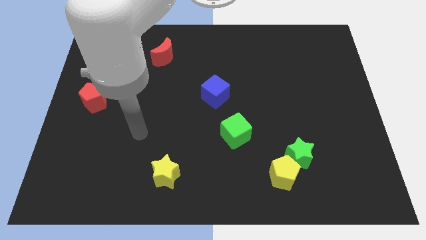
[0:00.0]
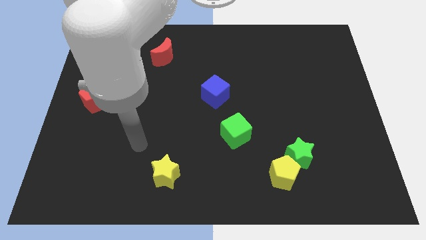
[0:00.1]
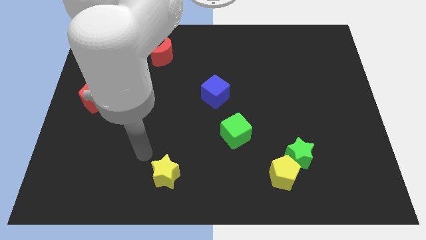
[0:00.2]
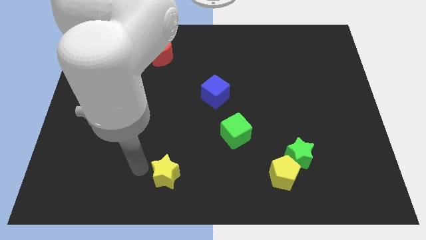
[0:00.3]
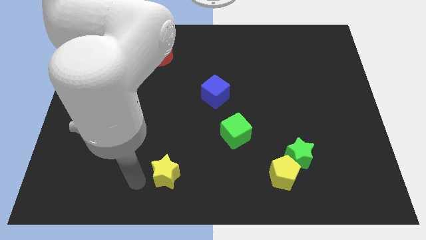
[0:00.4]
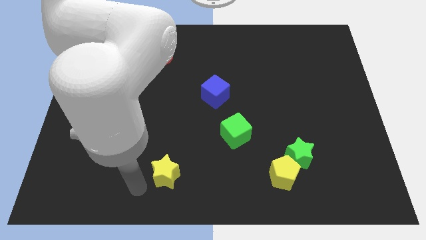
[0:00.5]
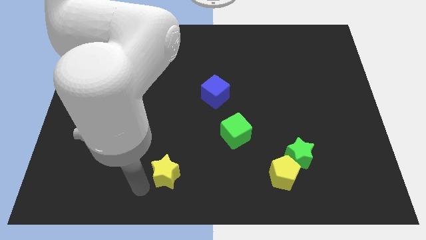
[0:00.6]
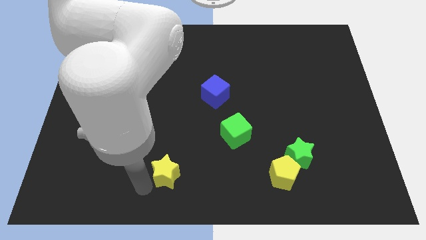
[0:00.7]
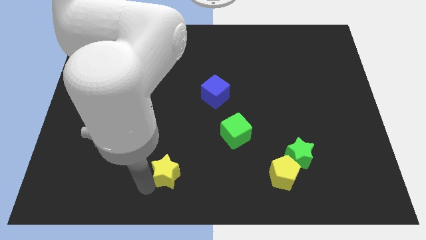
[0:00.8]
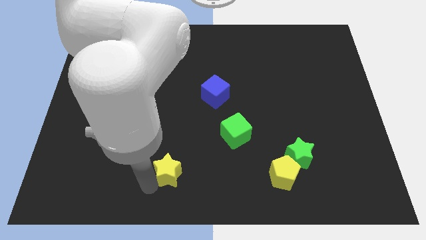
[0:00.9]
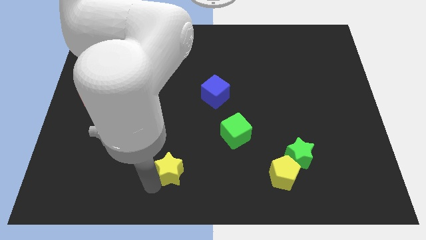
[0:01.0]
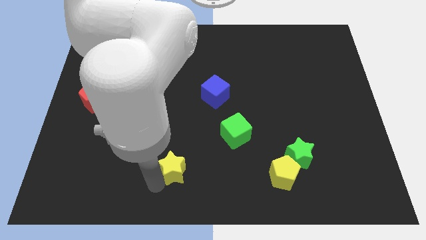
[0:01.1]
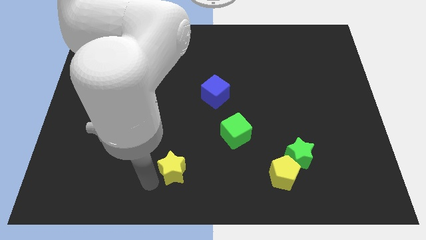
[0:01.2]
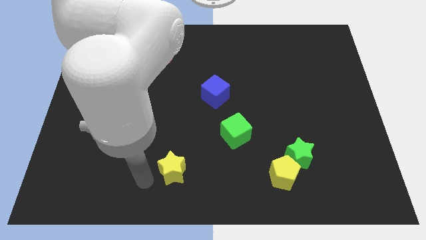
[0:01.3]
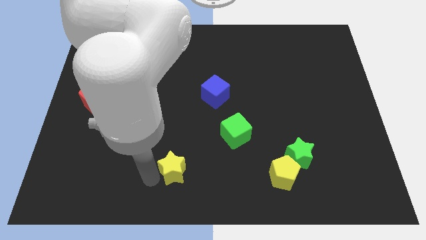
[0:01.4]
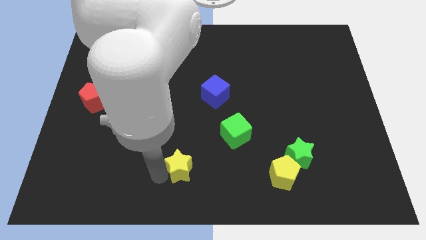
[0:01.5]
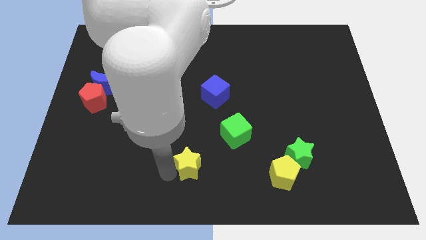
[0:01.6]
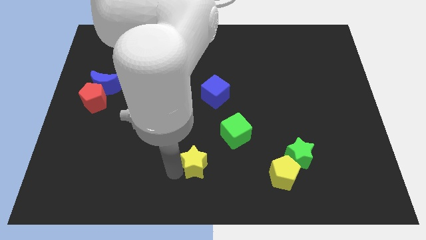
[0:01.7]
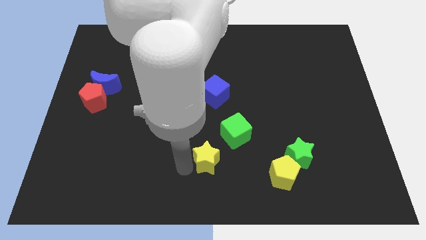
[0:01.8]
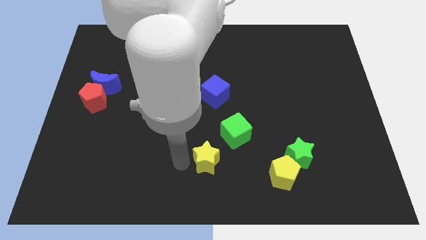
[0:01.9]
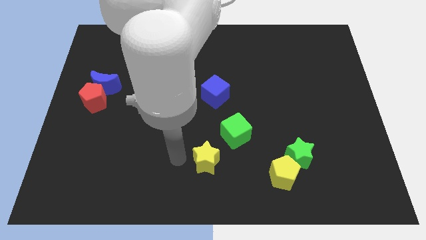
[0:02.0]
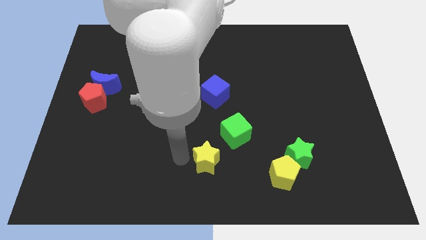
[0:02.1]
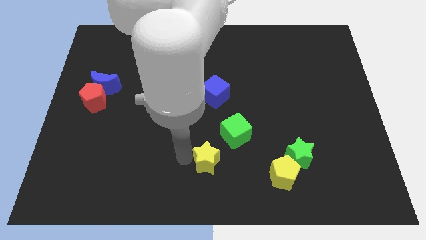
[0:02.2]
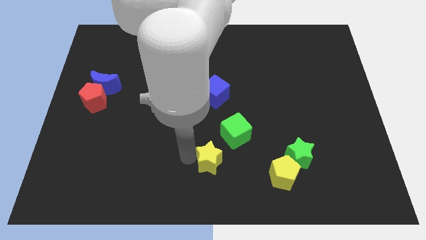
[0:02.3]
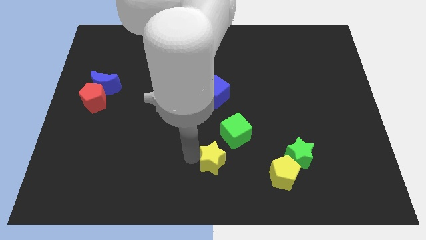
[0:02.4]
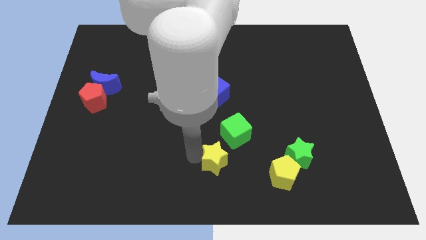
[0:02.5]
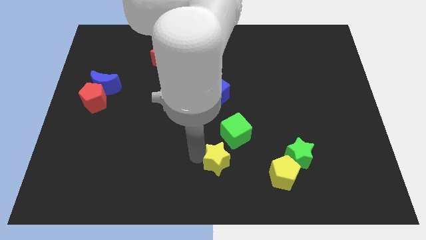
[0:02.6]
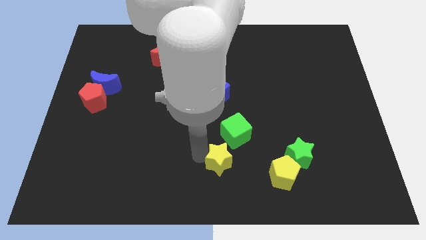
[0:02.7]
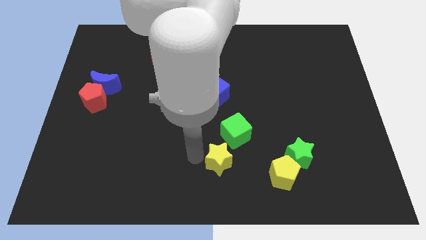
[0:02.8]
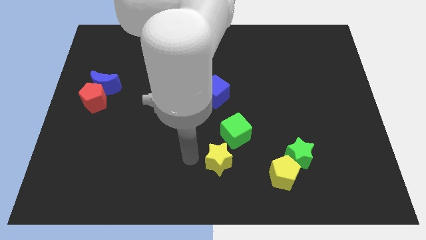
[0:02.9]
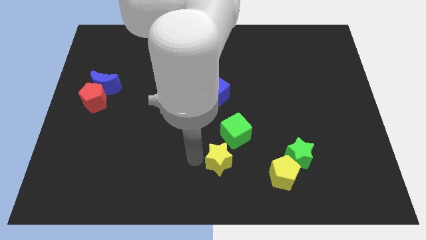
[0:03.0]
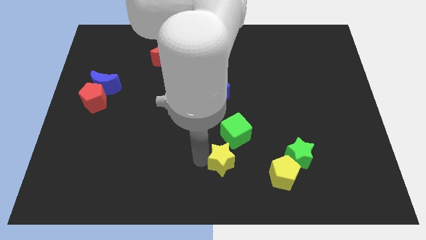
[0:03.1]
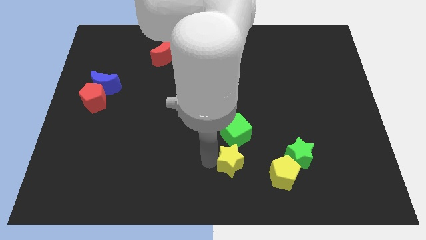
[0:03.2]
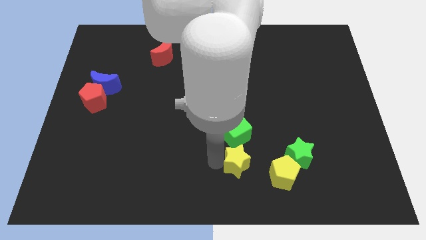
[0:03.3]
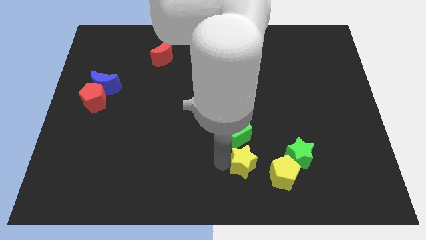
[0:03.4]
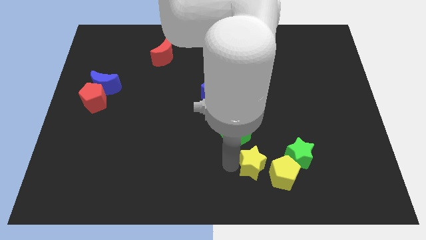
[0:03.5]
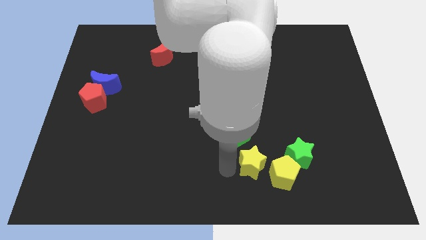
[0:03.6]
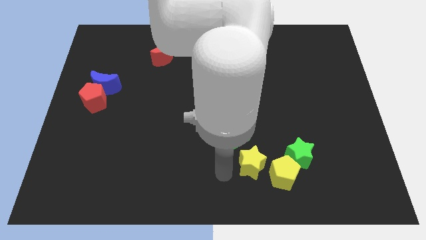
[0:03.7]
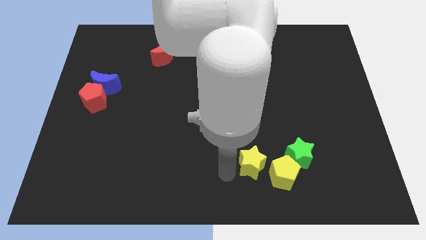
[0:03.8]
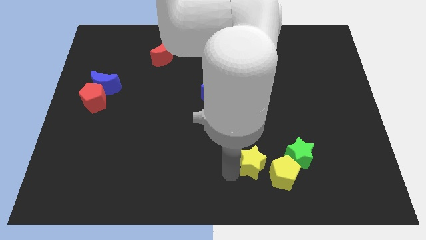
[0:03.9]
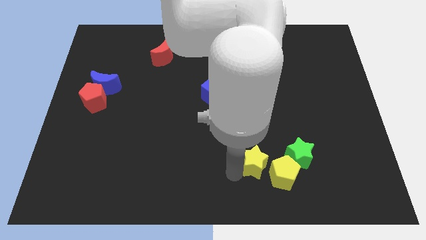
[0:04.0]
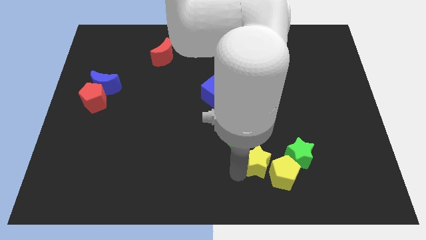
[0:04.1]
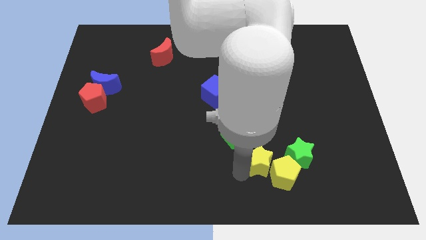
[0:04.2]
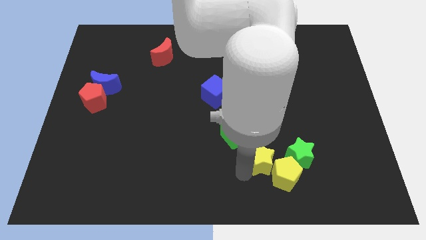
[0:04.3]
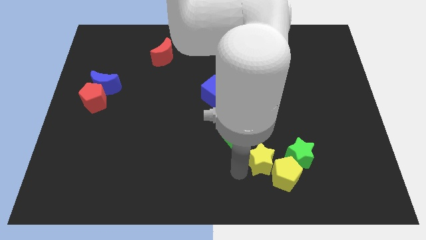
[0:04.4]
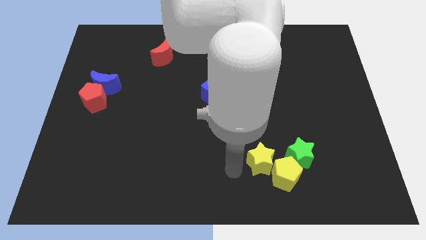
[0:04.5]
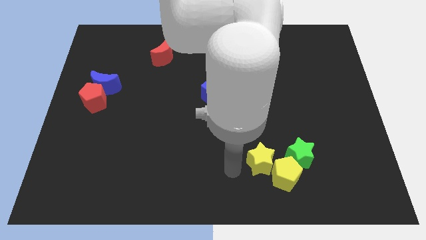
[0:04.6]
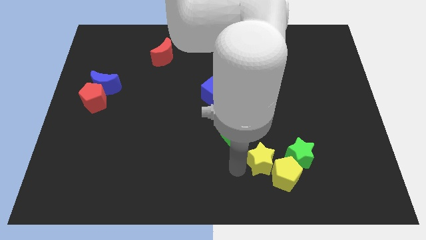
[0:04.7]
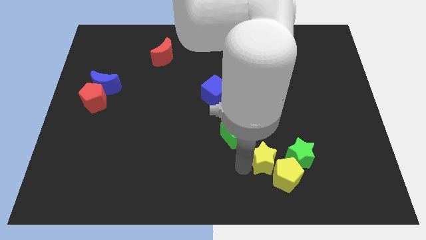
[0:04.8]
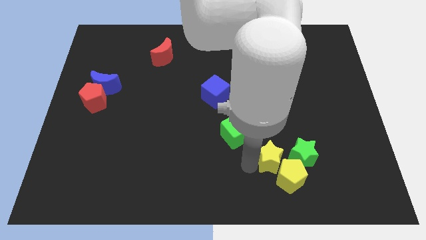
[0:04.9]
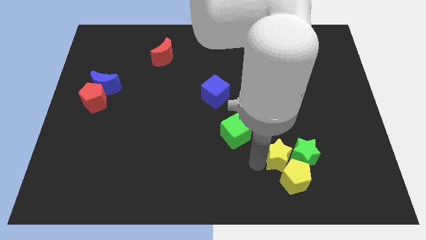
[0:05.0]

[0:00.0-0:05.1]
put the yellow star close to the green star

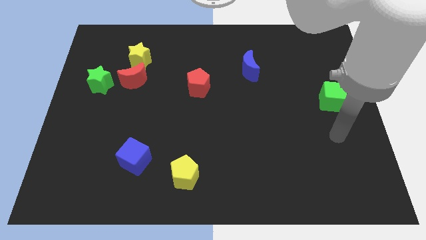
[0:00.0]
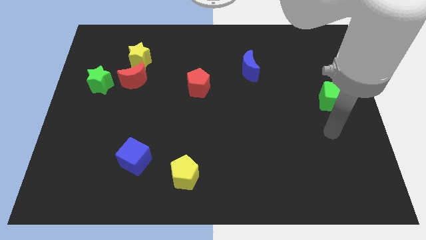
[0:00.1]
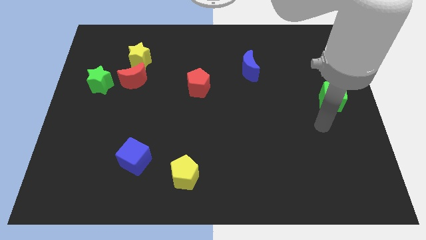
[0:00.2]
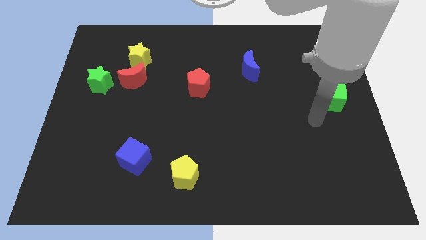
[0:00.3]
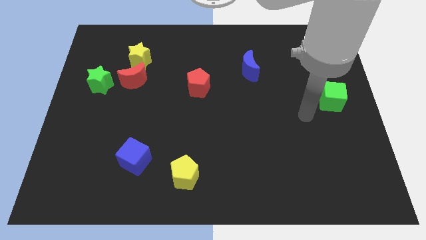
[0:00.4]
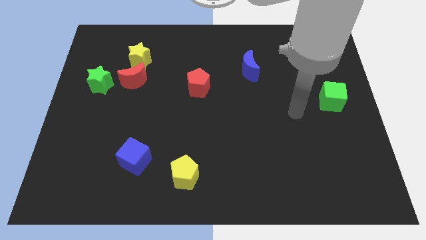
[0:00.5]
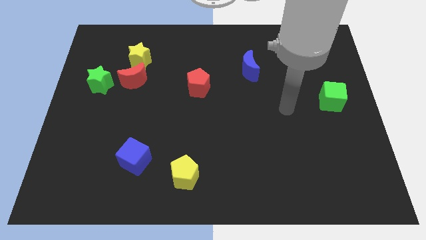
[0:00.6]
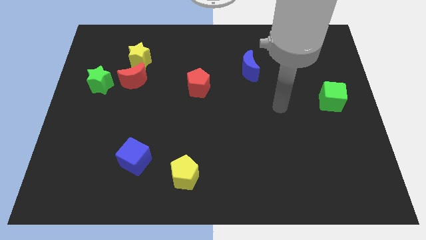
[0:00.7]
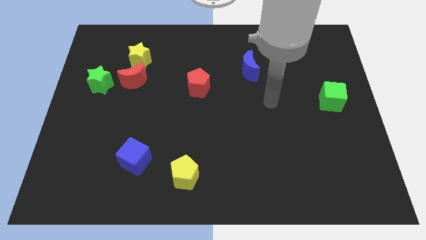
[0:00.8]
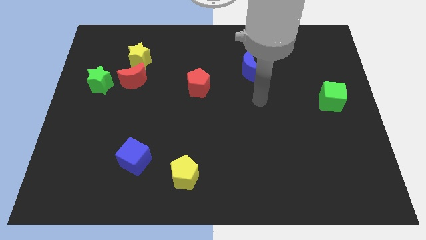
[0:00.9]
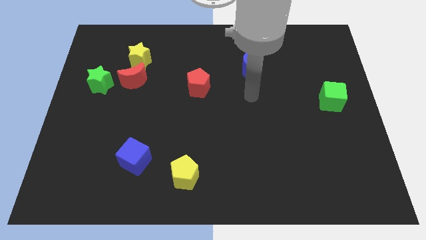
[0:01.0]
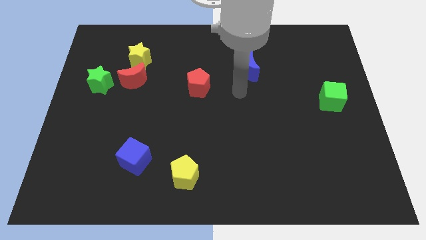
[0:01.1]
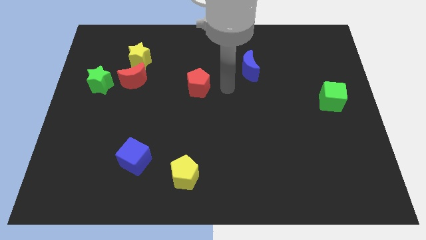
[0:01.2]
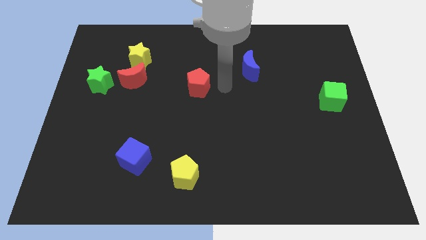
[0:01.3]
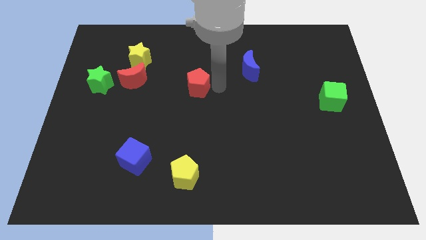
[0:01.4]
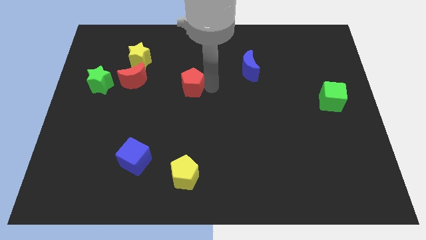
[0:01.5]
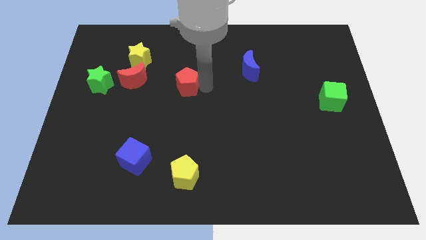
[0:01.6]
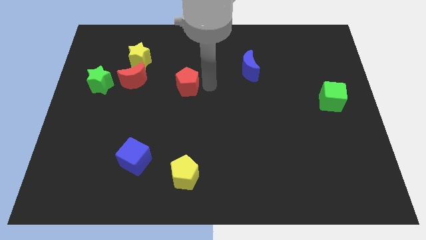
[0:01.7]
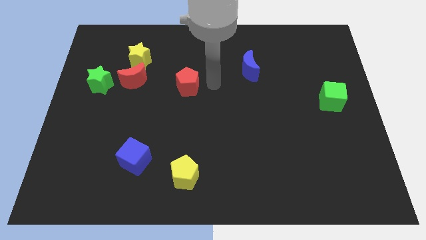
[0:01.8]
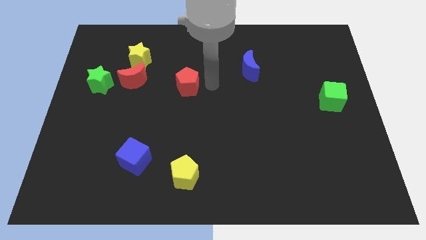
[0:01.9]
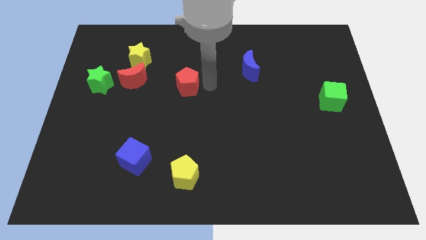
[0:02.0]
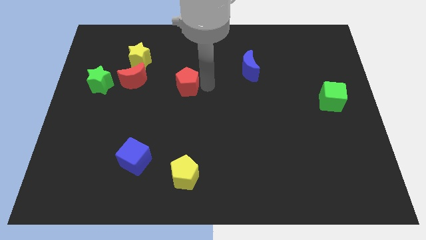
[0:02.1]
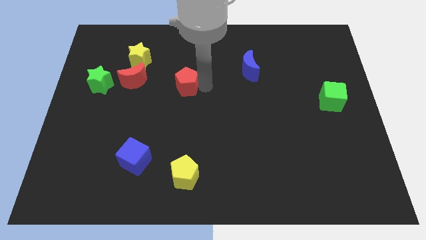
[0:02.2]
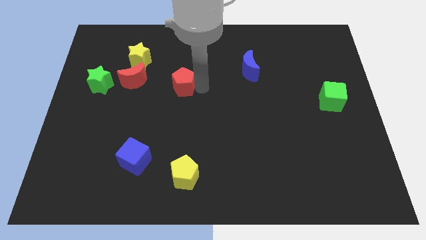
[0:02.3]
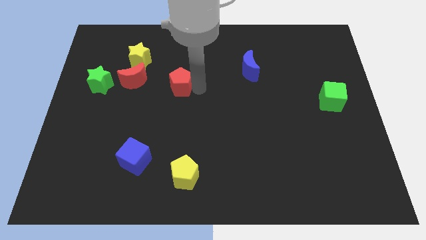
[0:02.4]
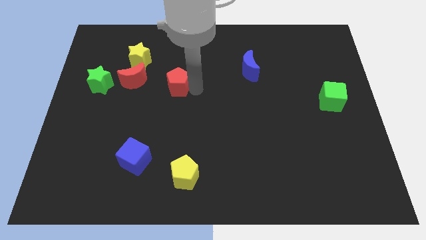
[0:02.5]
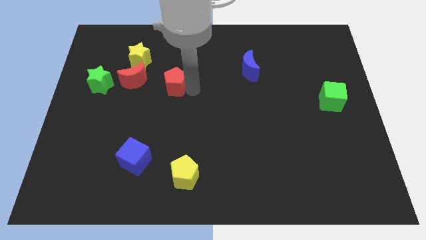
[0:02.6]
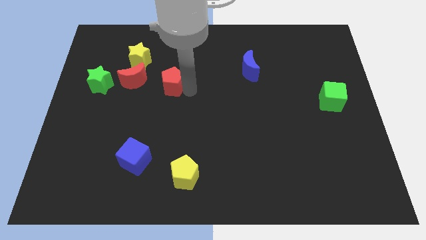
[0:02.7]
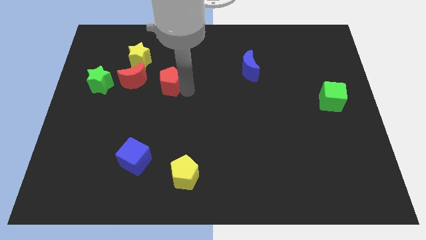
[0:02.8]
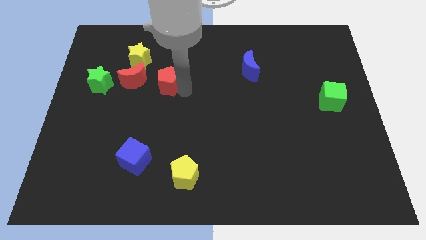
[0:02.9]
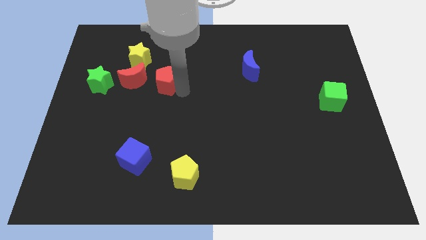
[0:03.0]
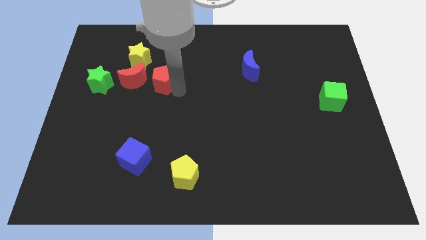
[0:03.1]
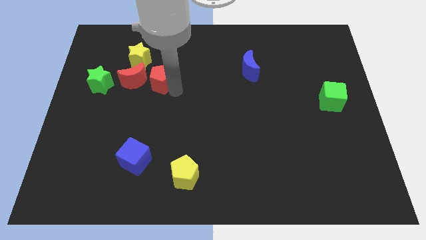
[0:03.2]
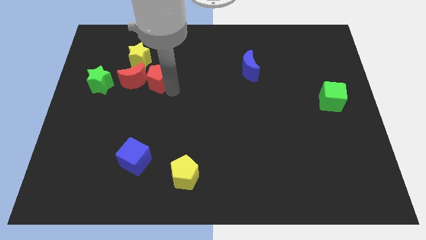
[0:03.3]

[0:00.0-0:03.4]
push the red pentagon to the red moon
